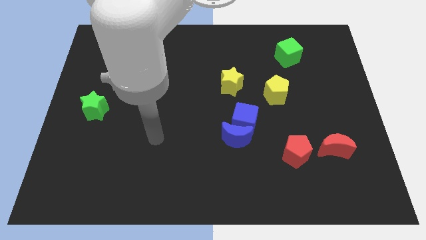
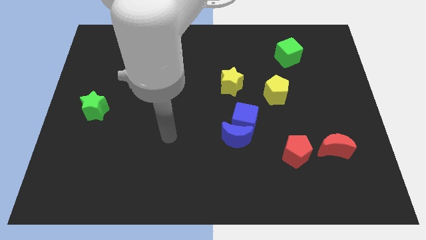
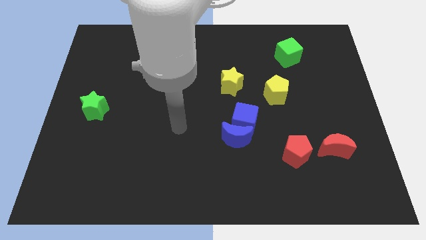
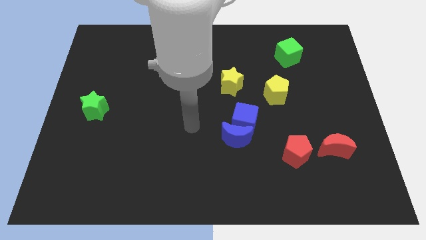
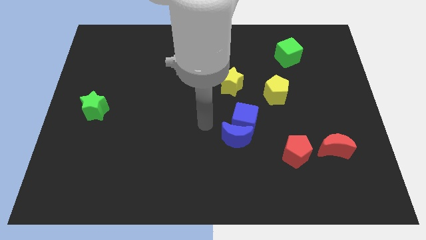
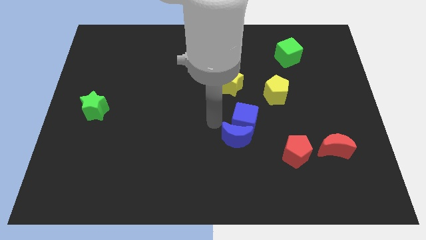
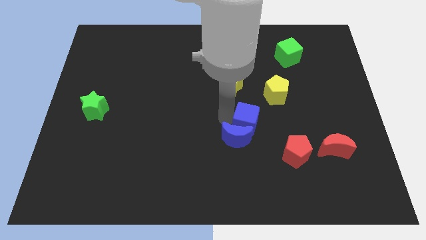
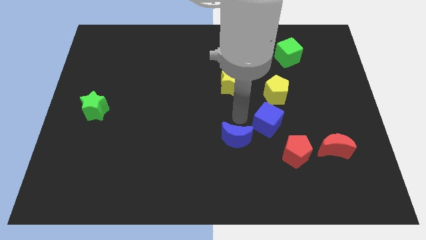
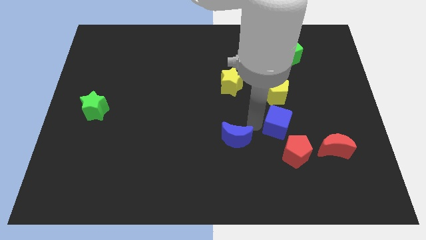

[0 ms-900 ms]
separate the blue moon from the blue cube

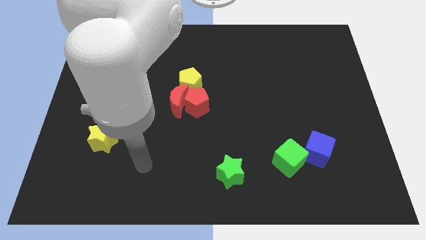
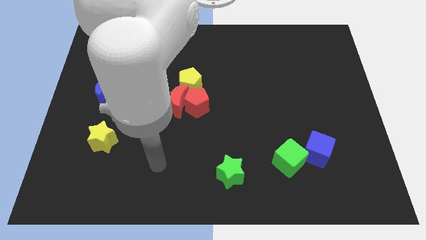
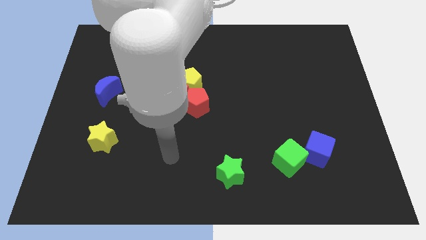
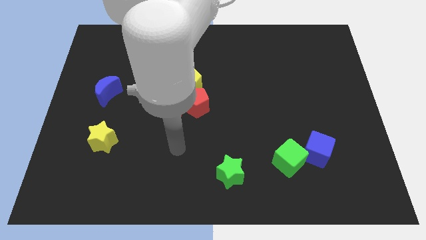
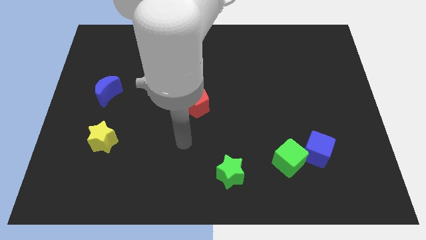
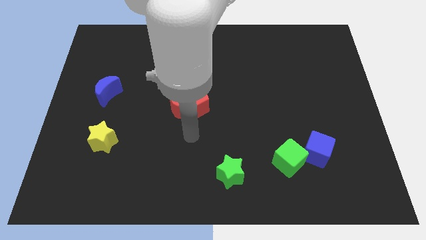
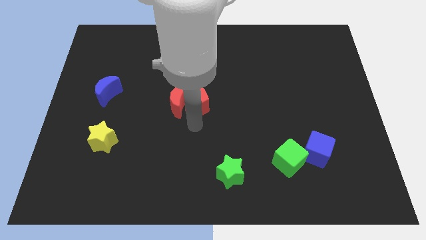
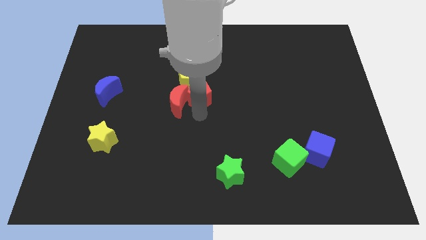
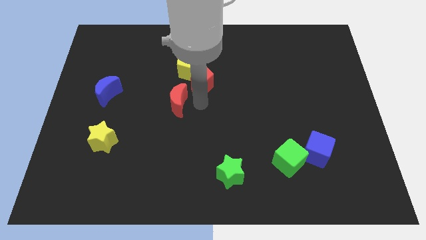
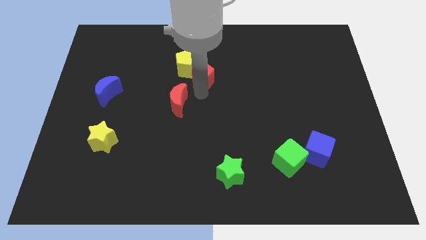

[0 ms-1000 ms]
pull the red moon apart from the red pentagon and yellow pentagon

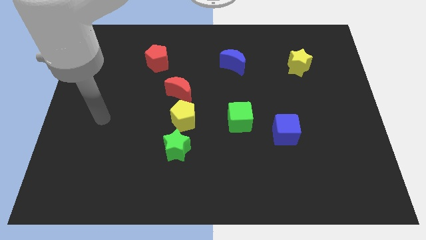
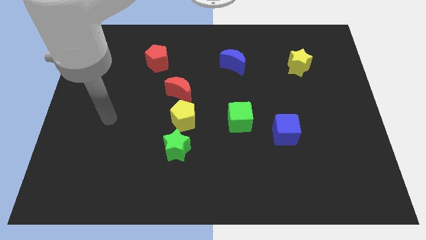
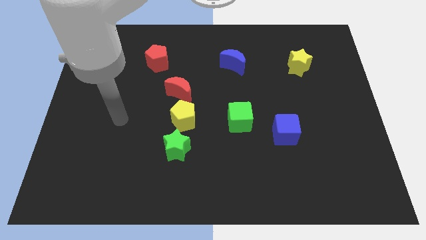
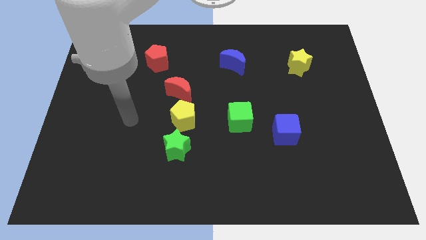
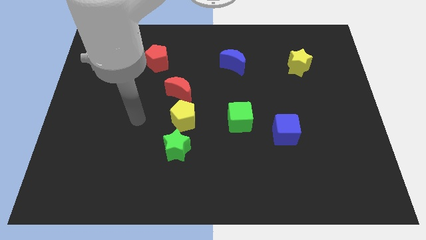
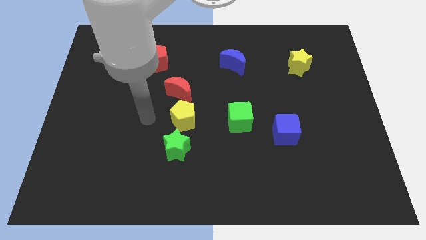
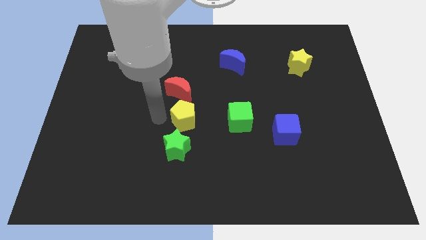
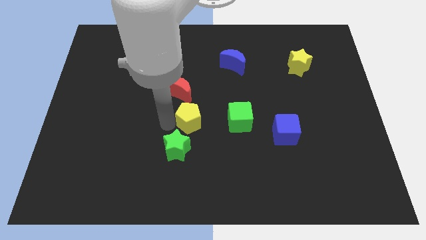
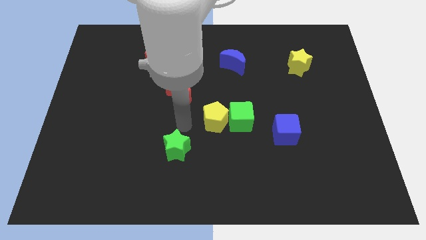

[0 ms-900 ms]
separate the green star from the yellow pentagon

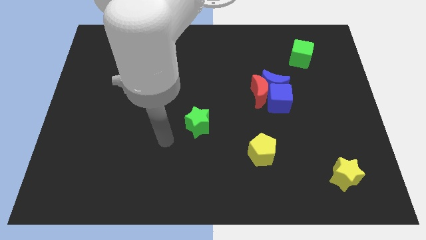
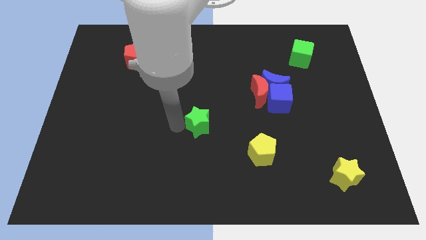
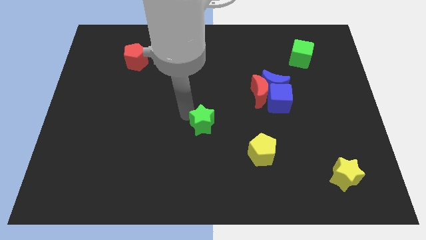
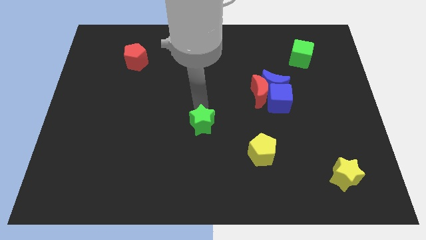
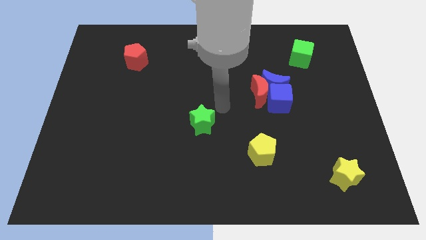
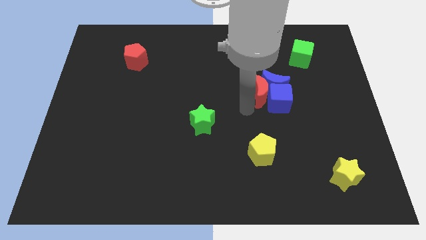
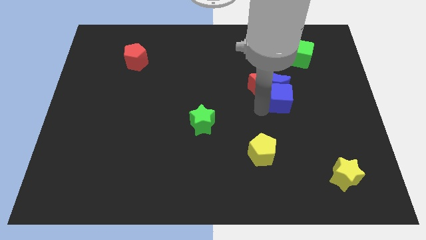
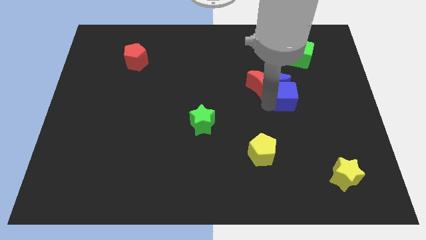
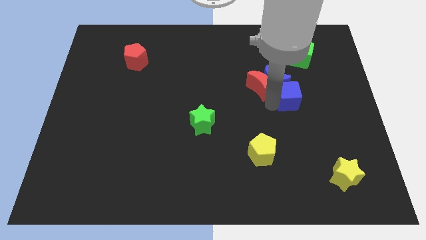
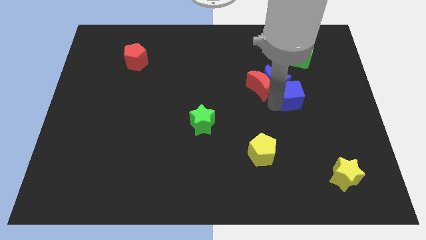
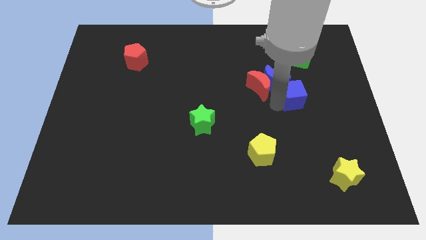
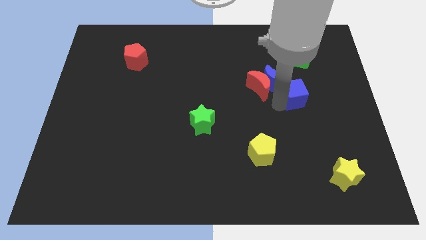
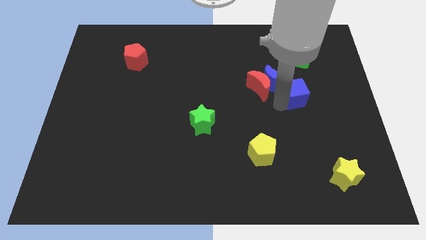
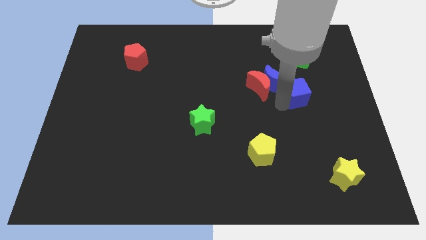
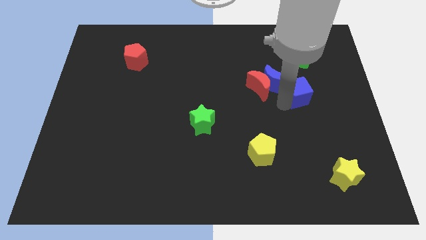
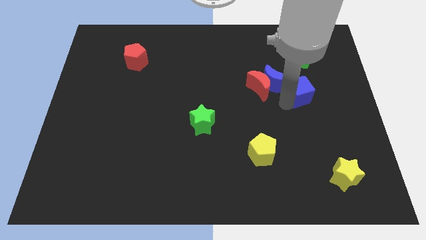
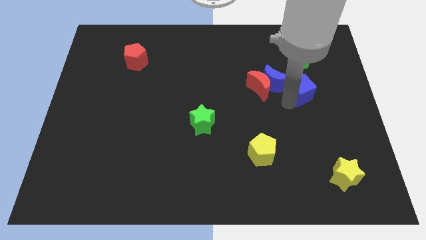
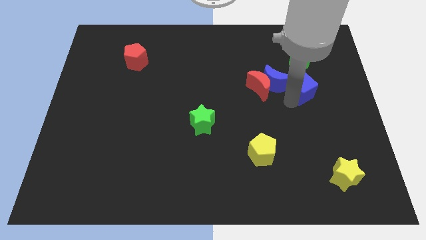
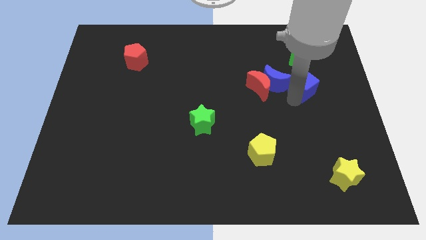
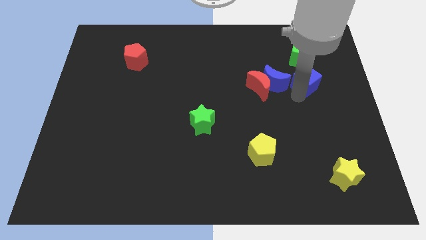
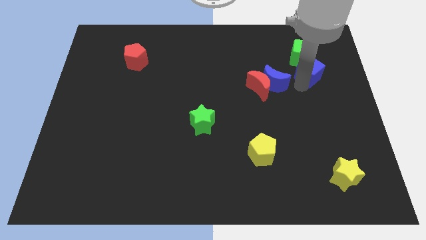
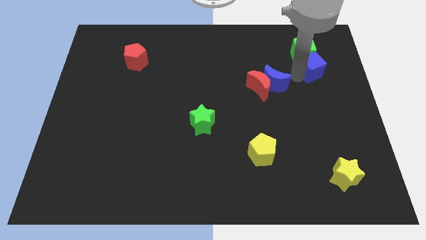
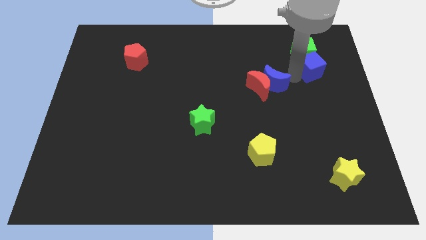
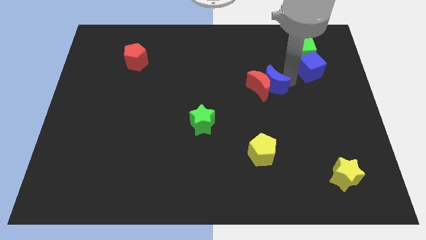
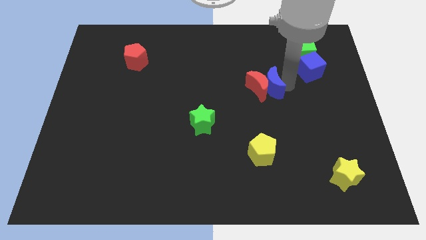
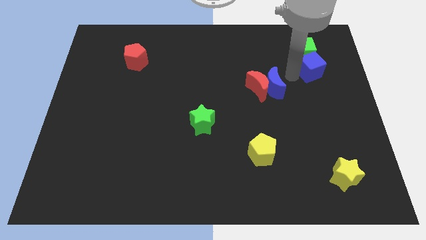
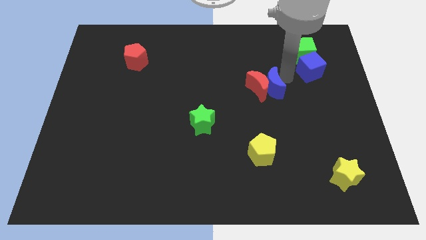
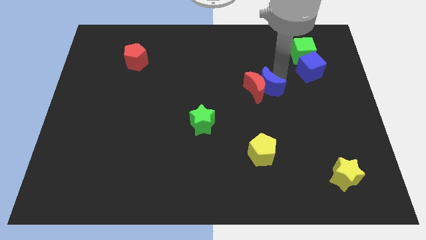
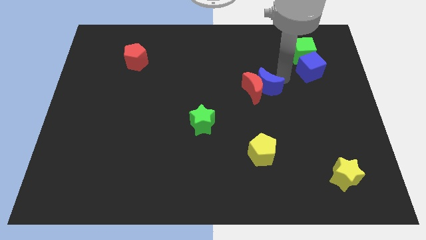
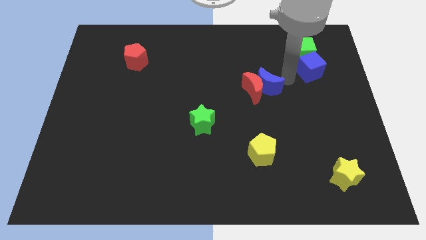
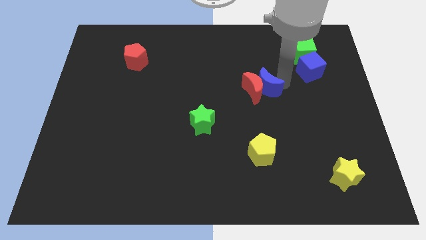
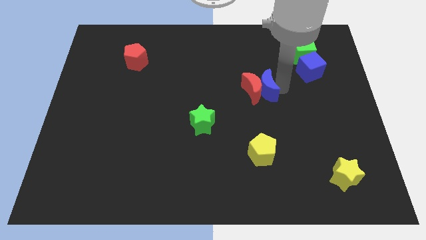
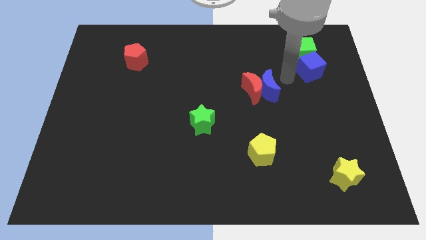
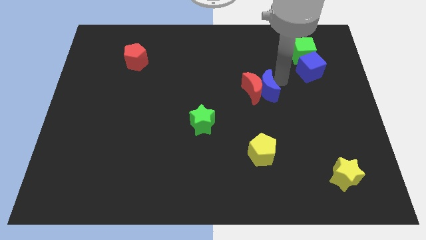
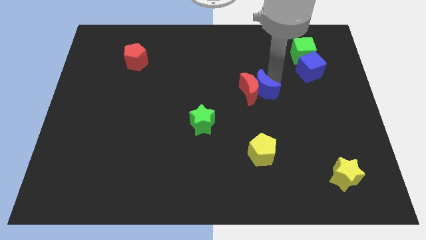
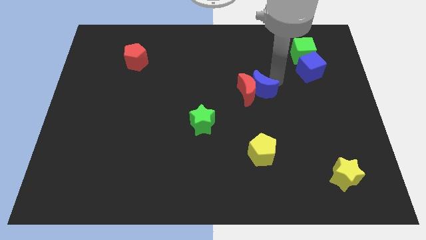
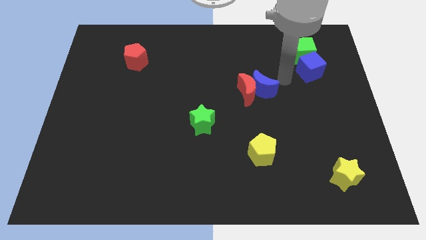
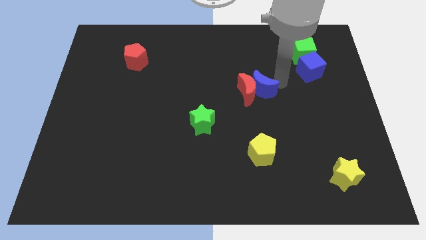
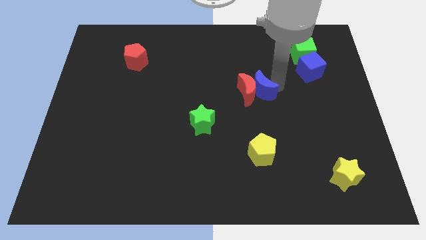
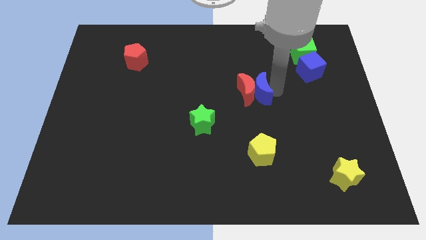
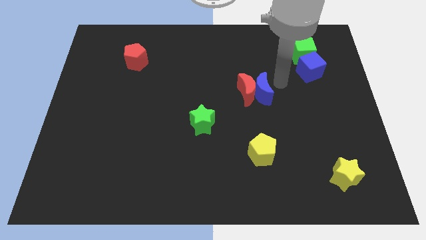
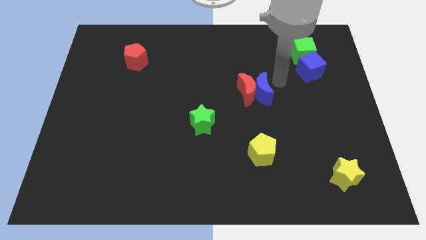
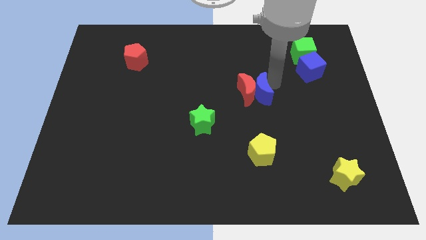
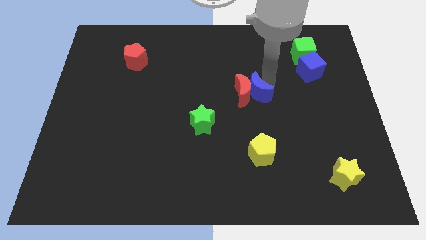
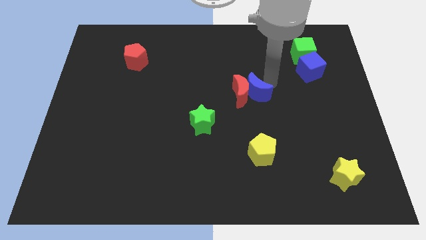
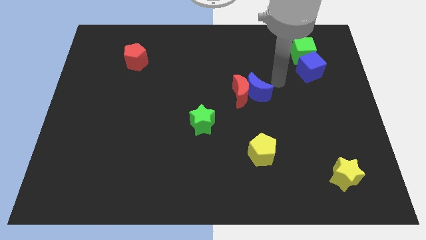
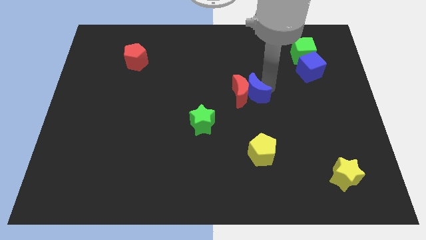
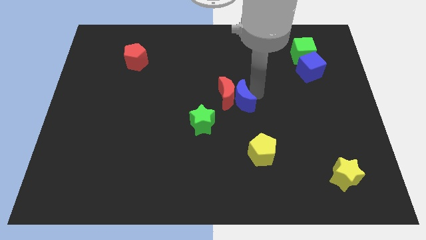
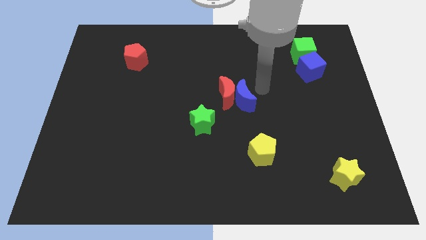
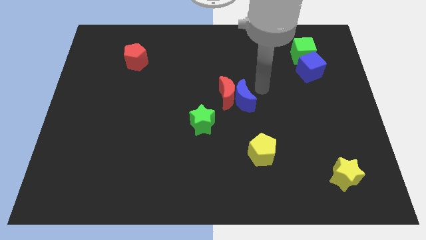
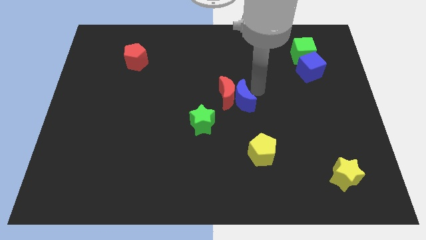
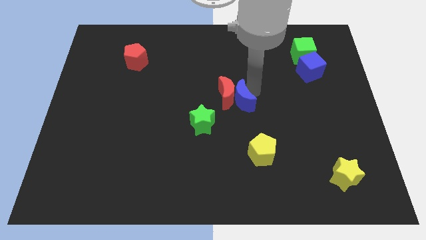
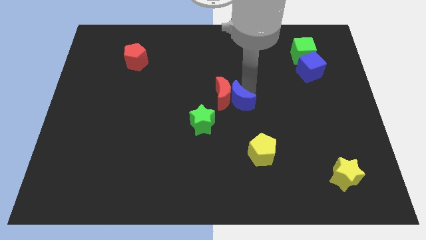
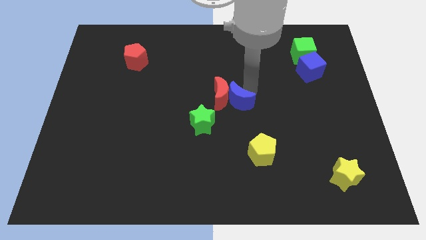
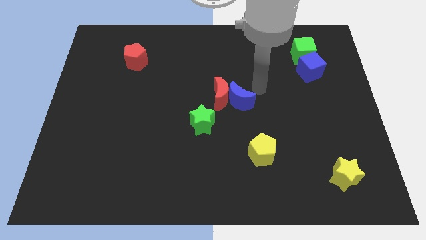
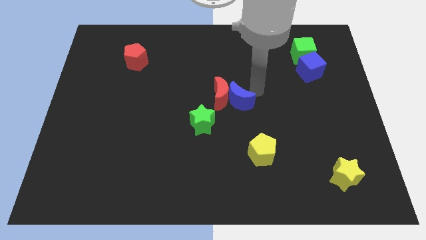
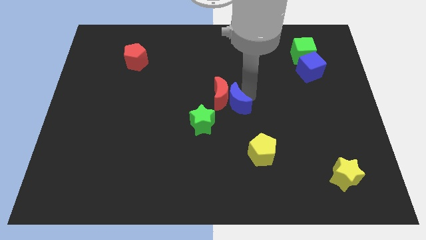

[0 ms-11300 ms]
separate the blue moon from the red moon and blue cube

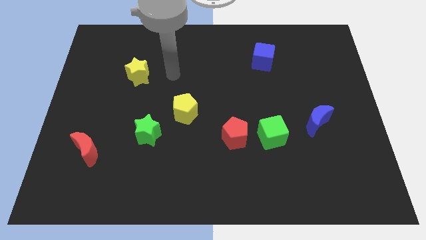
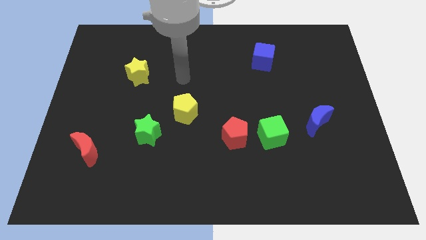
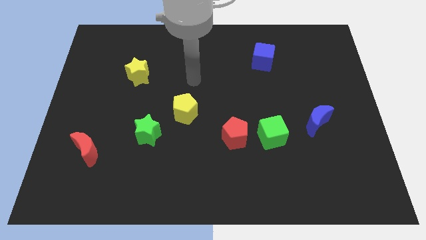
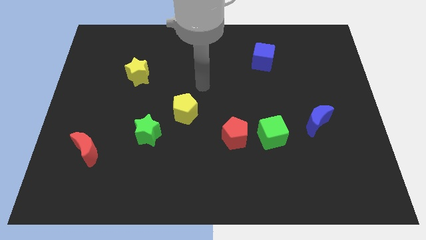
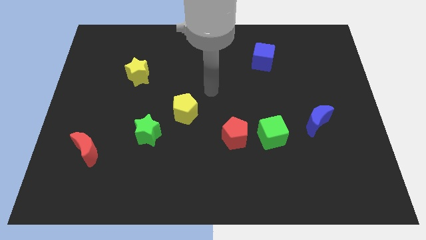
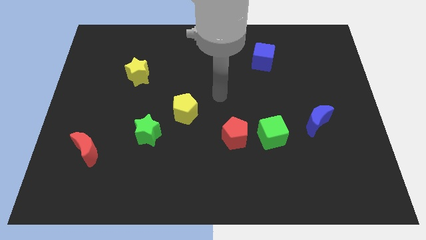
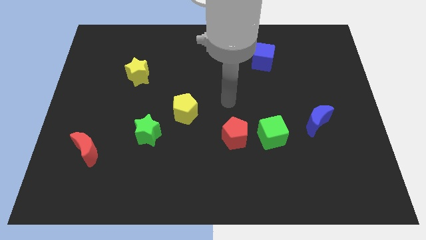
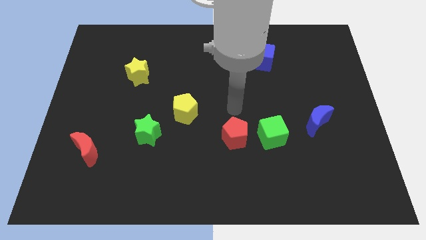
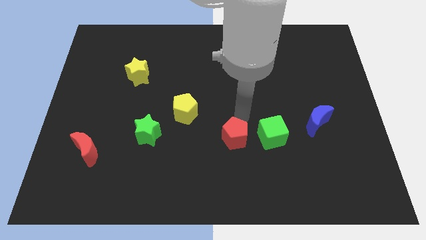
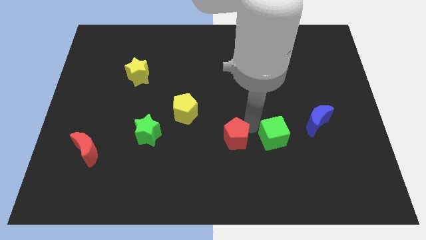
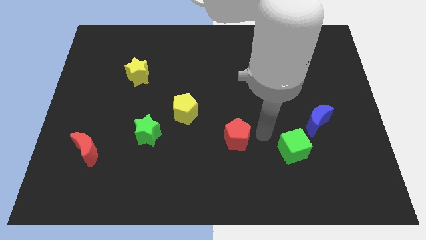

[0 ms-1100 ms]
move the red pentagon away from the green cube
